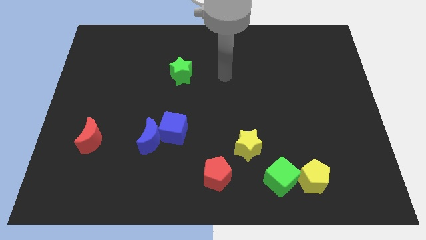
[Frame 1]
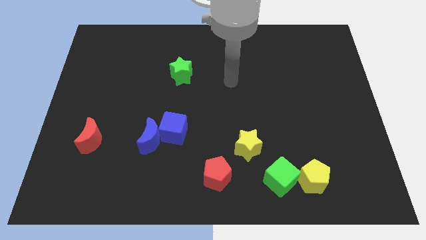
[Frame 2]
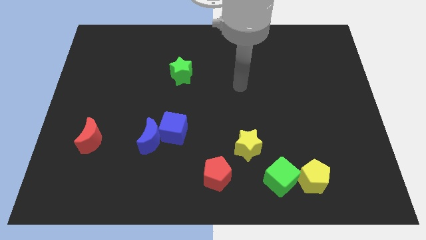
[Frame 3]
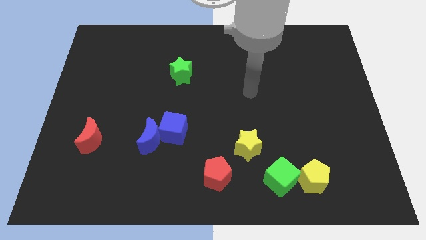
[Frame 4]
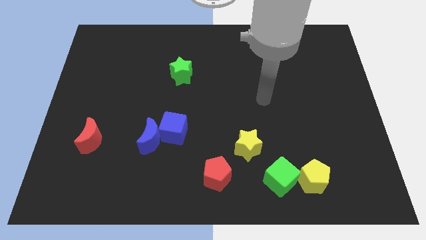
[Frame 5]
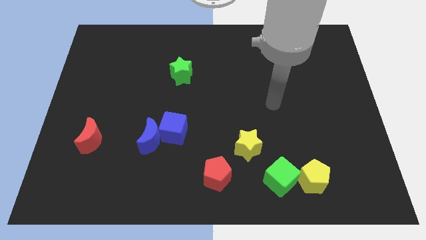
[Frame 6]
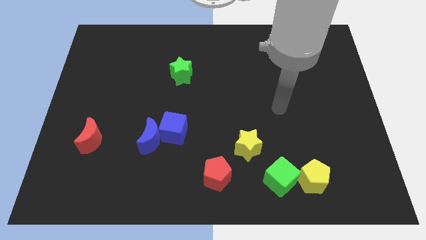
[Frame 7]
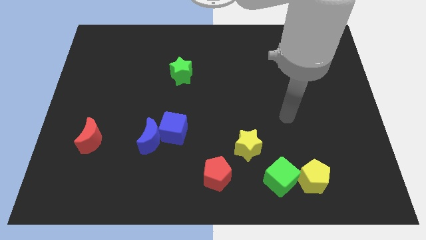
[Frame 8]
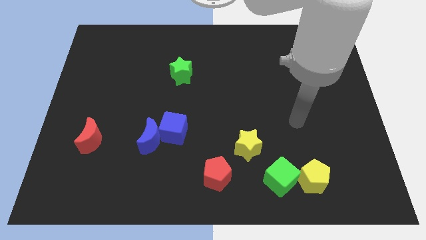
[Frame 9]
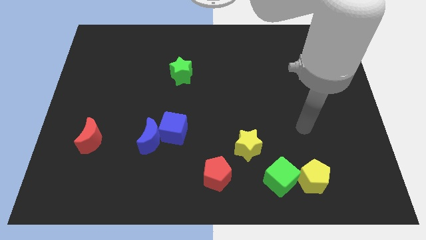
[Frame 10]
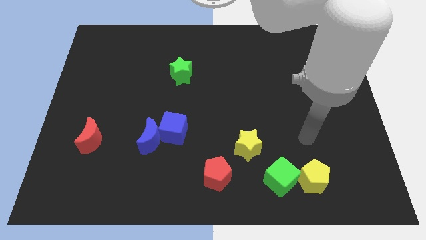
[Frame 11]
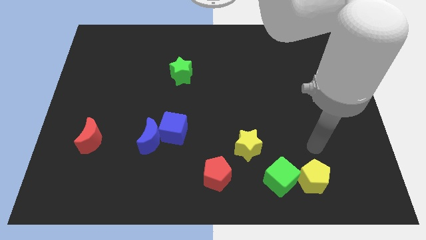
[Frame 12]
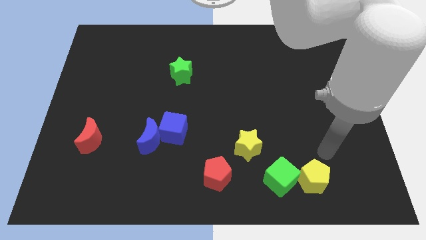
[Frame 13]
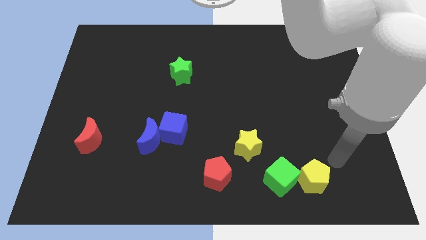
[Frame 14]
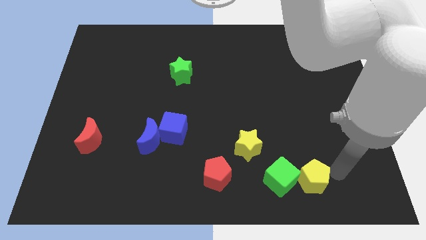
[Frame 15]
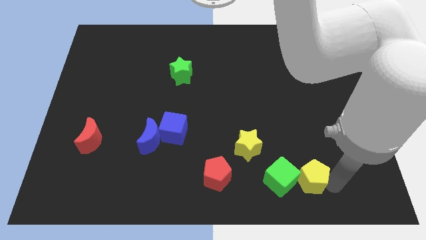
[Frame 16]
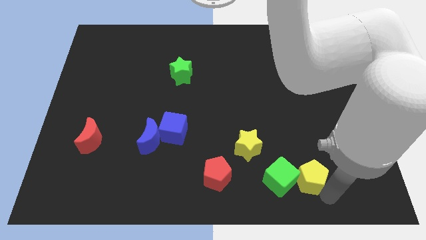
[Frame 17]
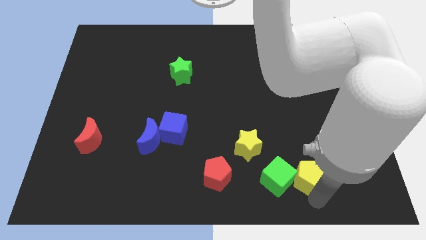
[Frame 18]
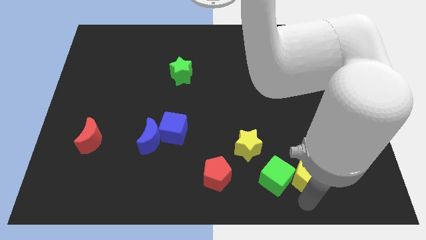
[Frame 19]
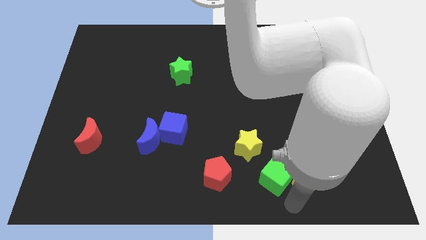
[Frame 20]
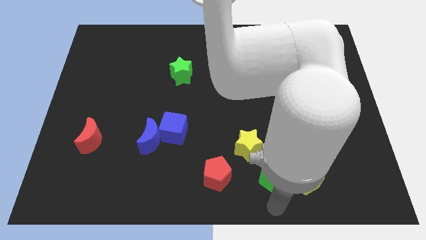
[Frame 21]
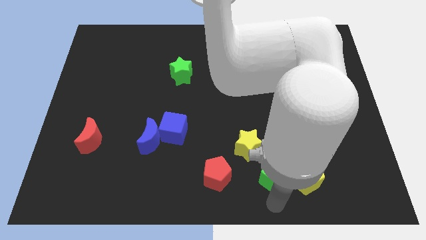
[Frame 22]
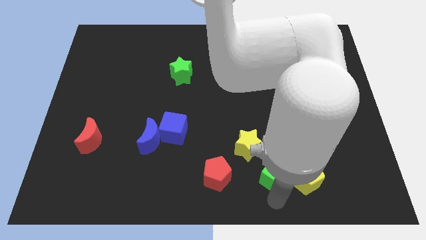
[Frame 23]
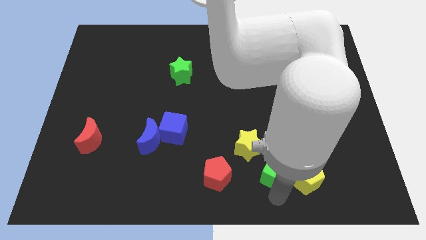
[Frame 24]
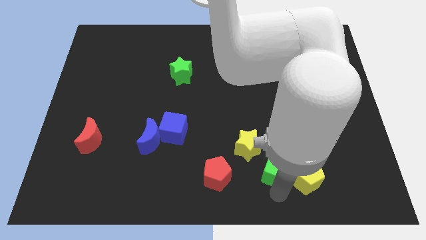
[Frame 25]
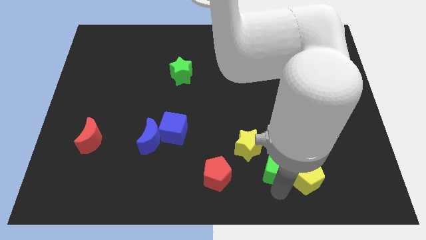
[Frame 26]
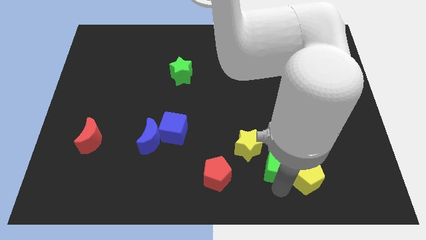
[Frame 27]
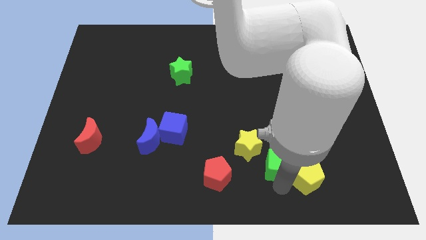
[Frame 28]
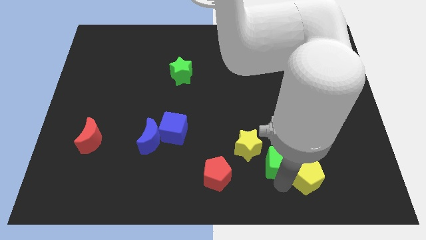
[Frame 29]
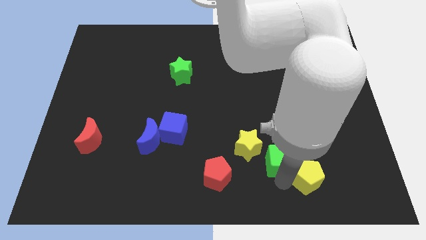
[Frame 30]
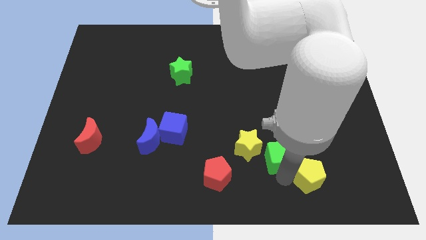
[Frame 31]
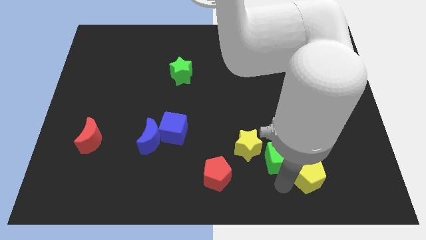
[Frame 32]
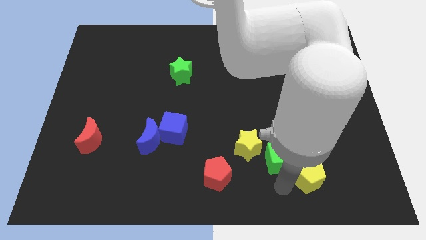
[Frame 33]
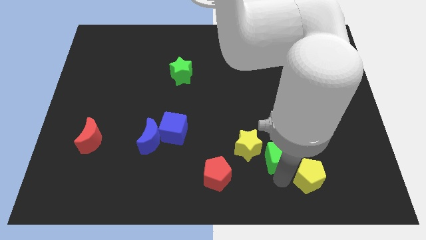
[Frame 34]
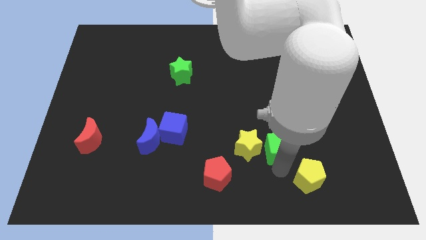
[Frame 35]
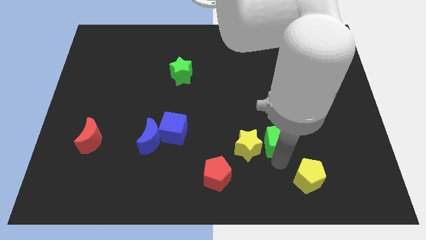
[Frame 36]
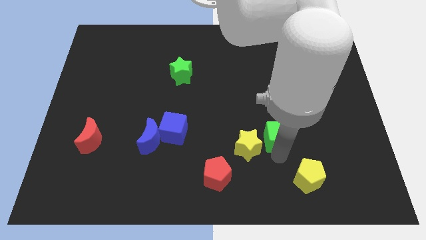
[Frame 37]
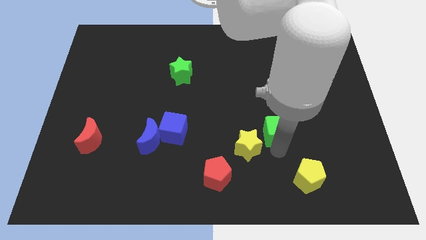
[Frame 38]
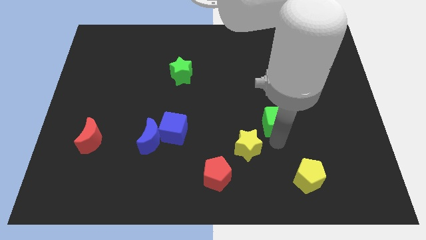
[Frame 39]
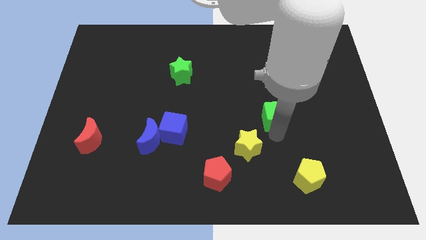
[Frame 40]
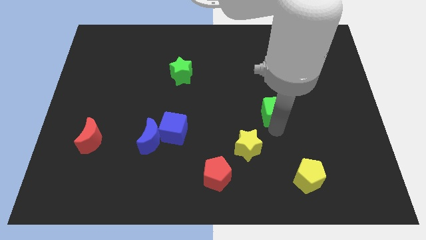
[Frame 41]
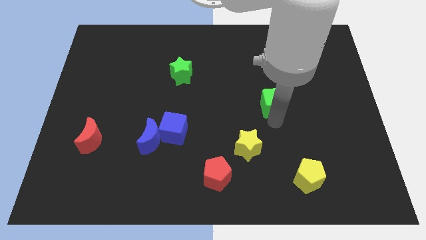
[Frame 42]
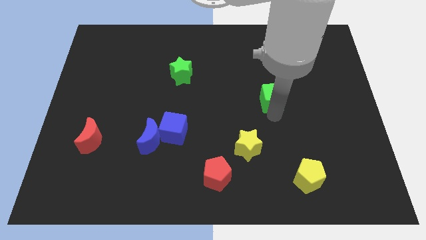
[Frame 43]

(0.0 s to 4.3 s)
slide the green cube up

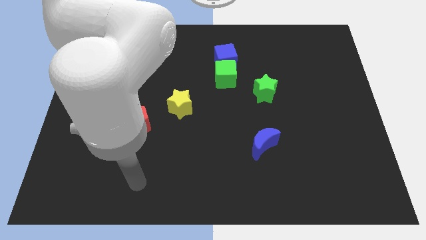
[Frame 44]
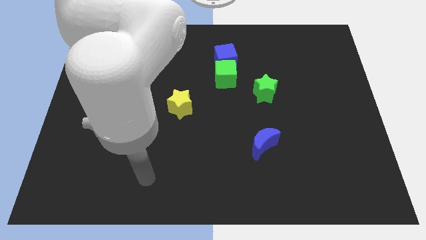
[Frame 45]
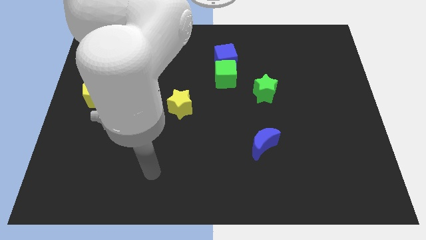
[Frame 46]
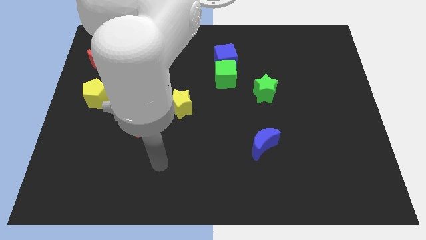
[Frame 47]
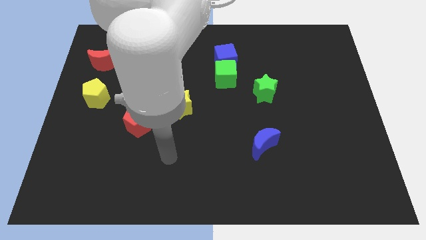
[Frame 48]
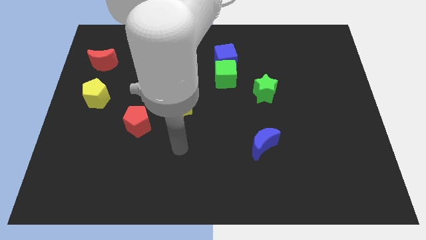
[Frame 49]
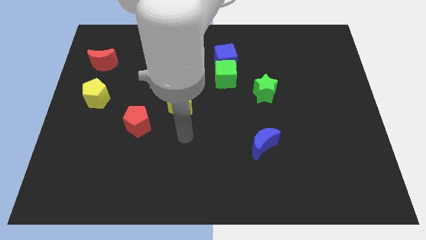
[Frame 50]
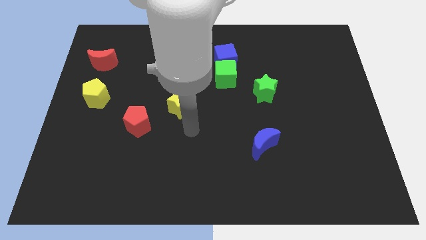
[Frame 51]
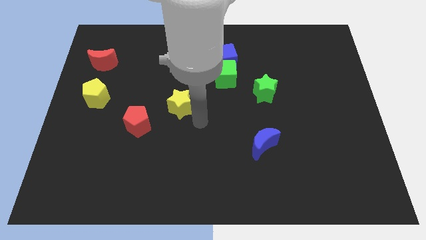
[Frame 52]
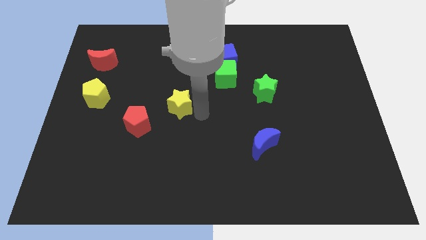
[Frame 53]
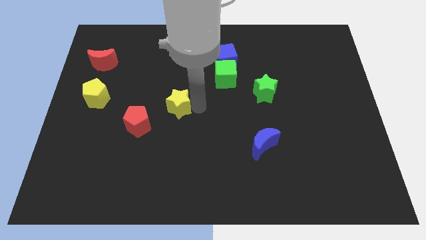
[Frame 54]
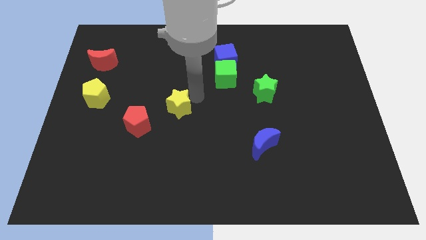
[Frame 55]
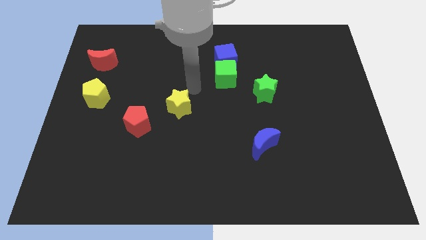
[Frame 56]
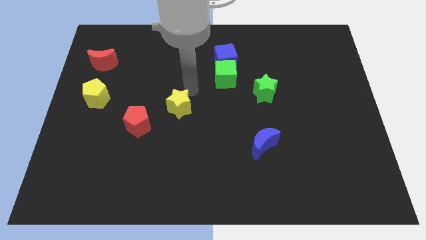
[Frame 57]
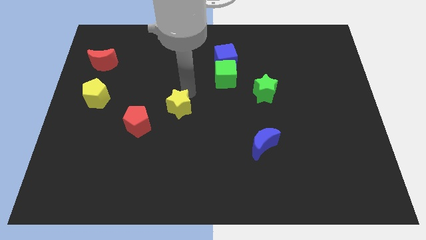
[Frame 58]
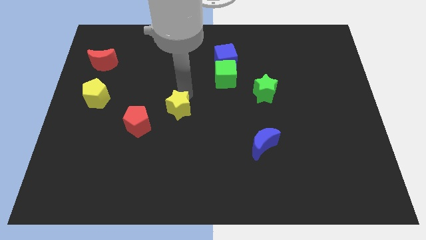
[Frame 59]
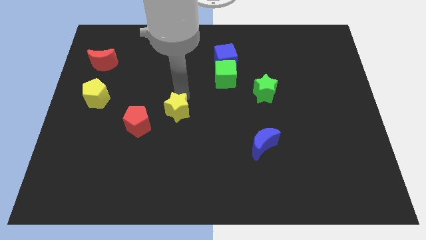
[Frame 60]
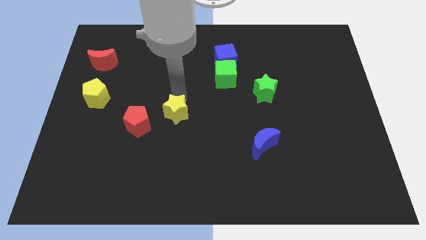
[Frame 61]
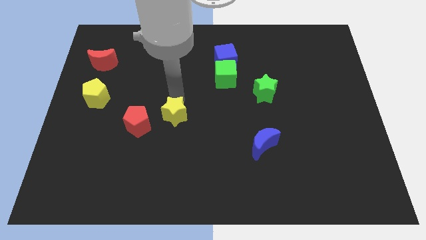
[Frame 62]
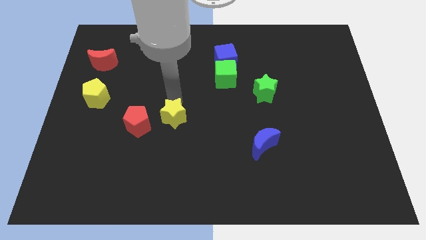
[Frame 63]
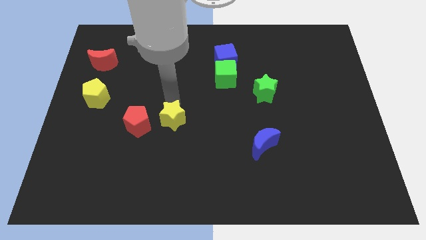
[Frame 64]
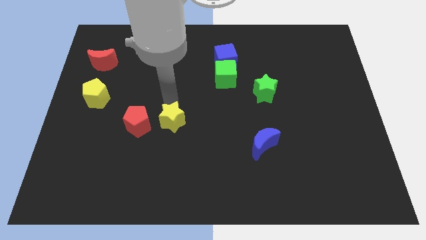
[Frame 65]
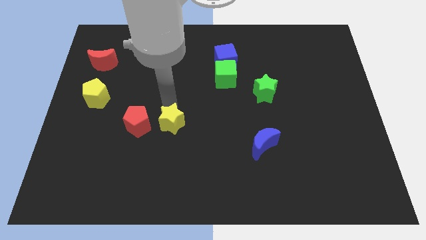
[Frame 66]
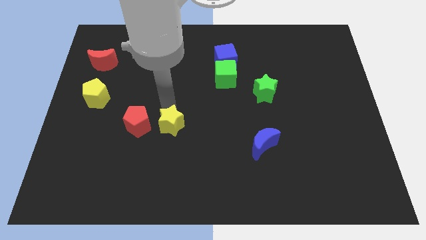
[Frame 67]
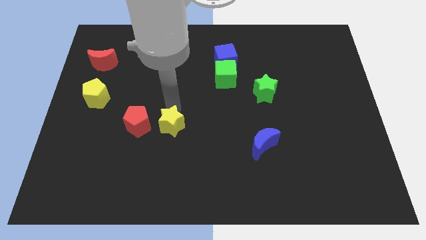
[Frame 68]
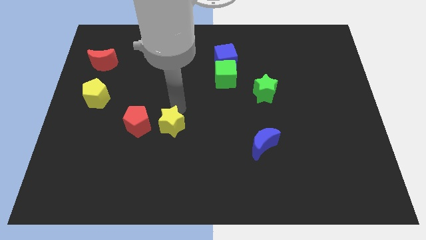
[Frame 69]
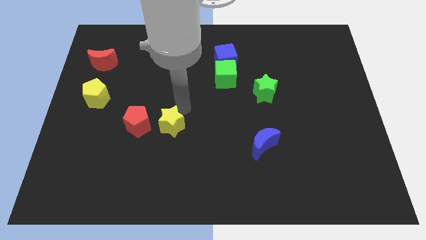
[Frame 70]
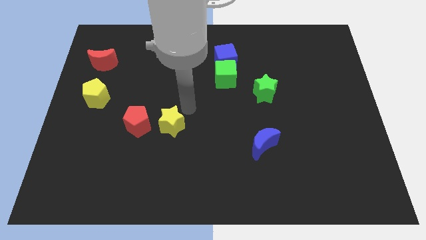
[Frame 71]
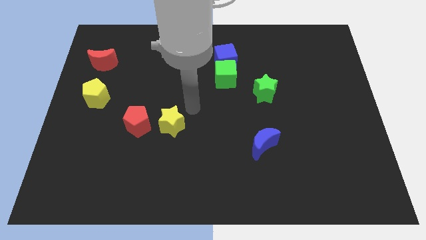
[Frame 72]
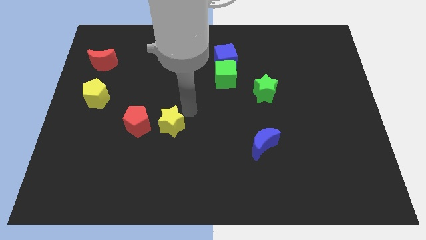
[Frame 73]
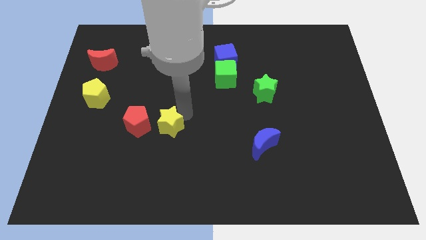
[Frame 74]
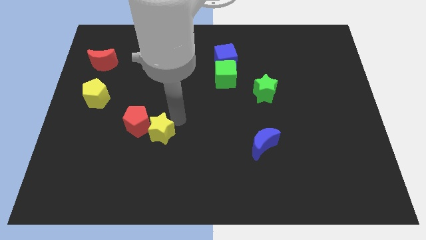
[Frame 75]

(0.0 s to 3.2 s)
move the yellow star a little downwards and then to the left

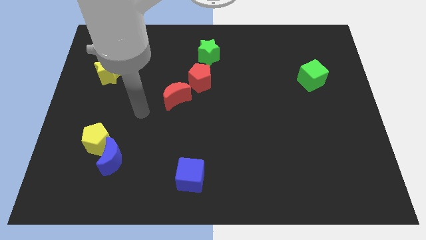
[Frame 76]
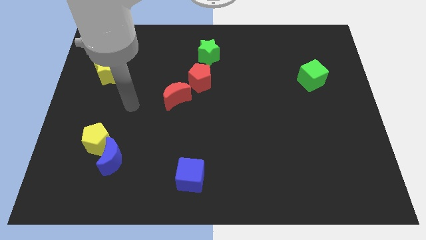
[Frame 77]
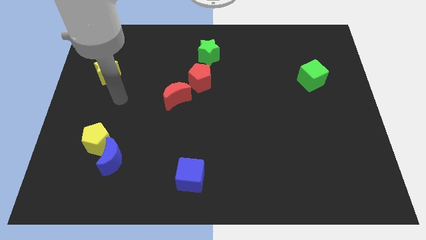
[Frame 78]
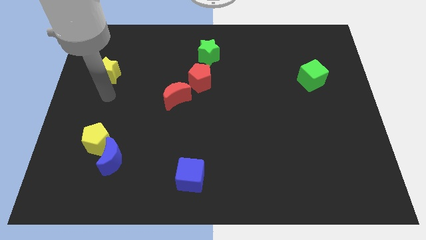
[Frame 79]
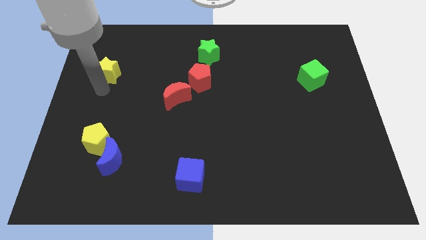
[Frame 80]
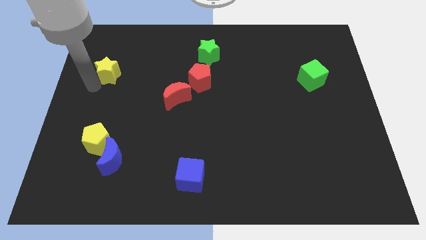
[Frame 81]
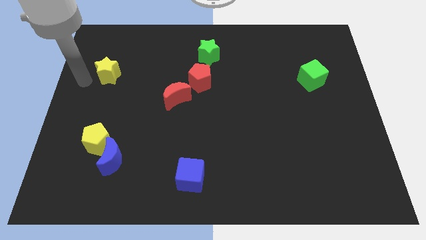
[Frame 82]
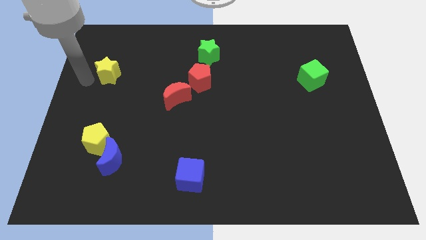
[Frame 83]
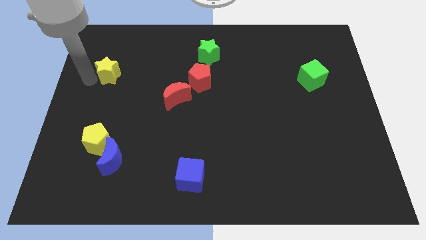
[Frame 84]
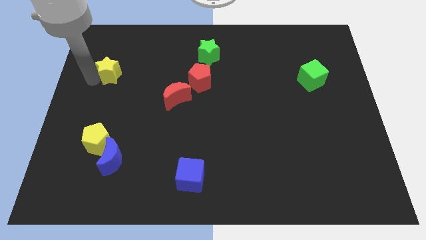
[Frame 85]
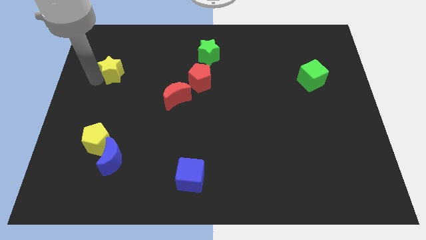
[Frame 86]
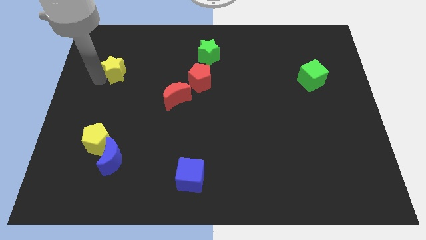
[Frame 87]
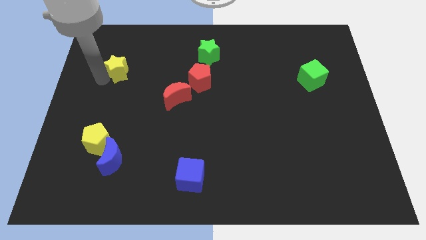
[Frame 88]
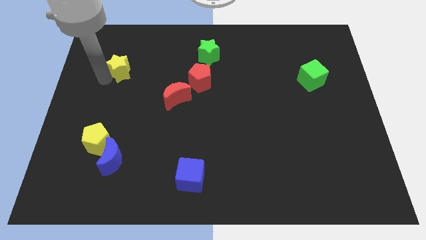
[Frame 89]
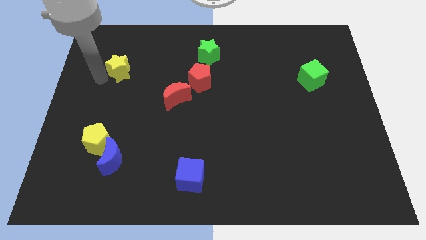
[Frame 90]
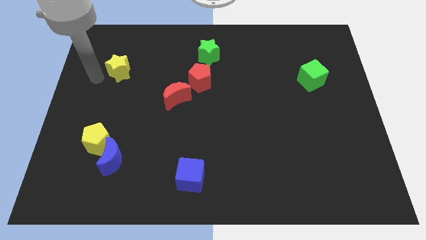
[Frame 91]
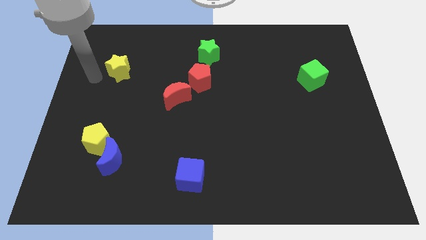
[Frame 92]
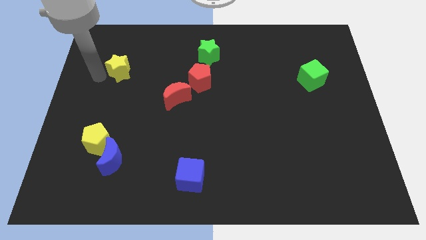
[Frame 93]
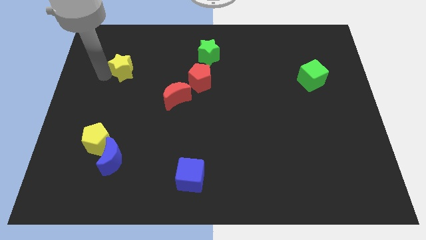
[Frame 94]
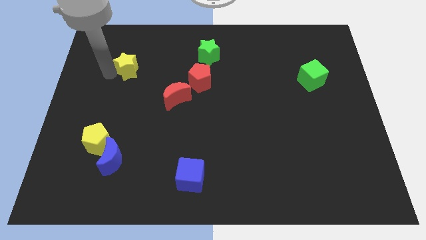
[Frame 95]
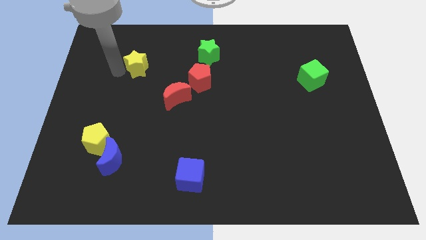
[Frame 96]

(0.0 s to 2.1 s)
move the yellow star to the right slightly
